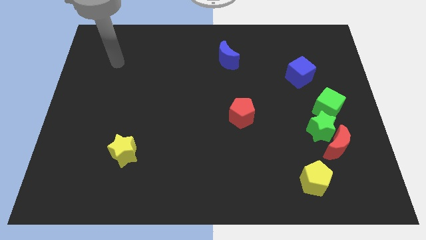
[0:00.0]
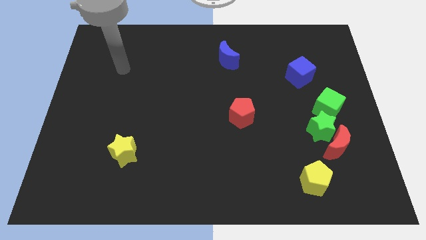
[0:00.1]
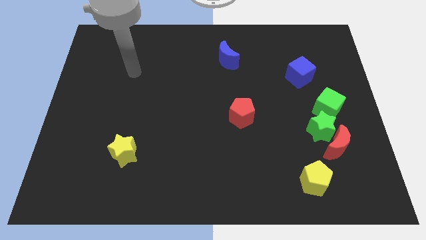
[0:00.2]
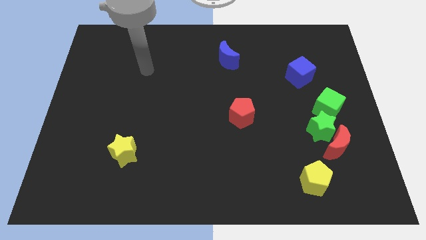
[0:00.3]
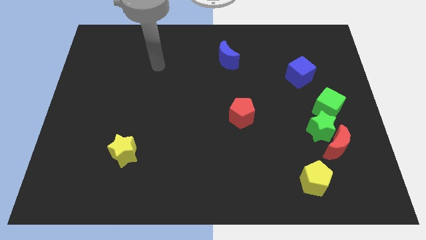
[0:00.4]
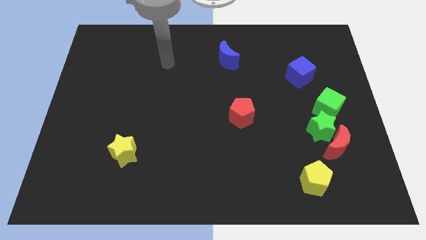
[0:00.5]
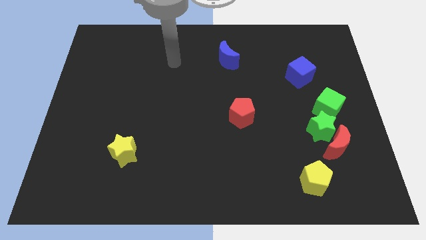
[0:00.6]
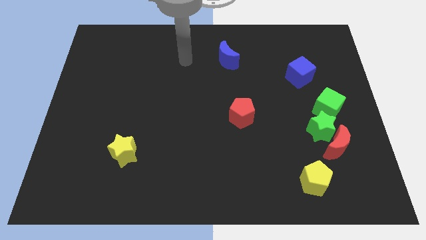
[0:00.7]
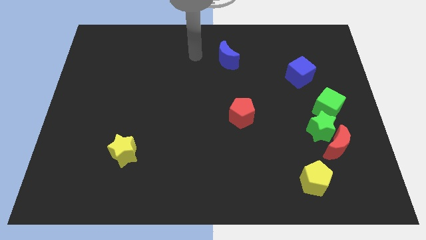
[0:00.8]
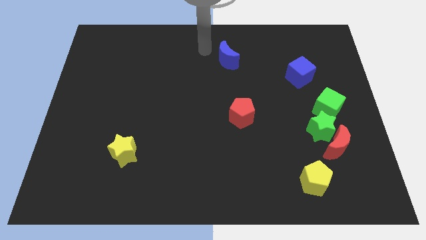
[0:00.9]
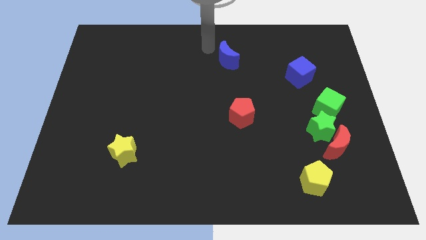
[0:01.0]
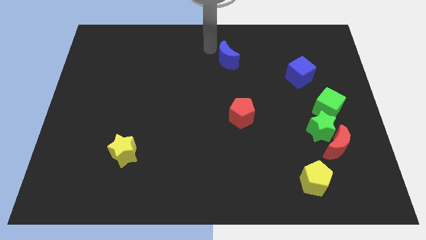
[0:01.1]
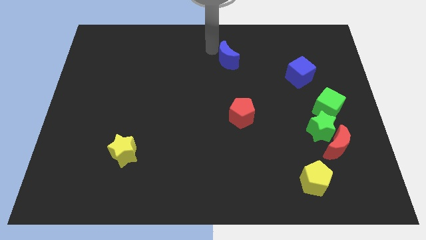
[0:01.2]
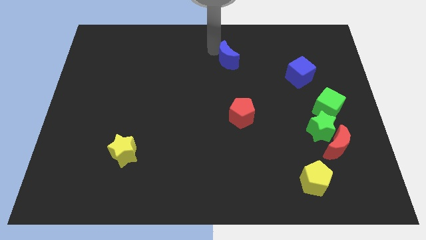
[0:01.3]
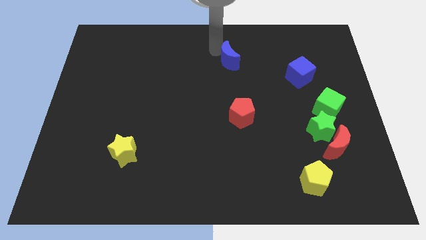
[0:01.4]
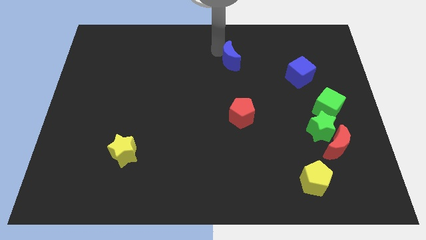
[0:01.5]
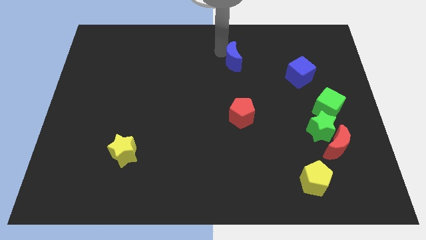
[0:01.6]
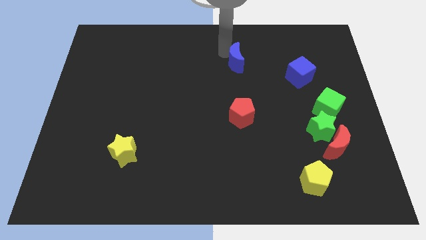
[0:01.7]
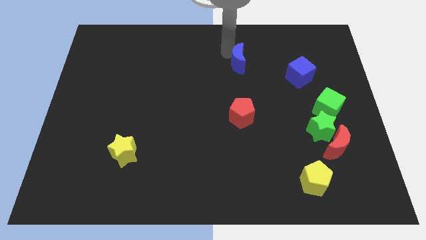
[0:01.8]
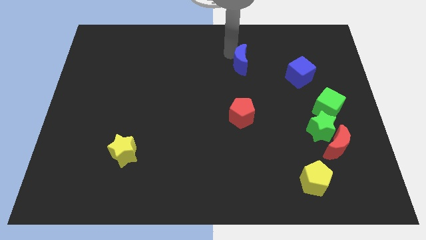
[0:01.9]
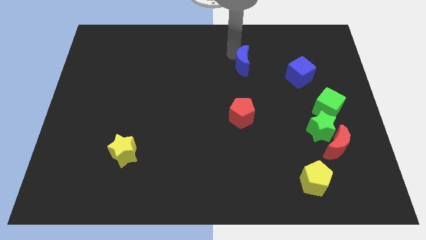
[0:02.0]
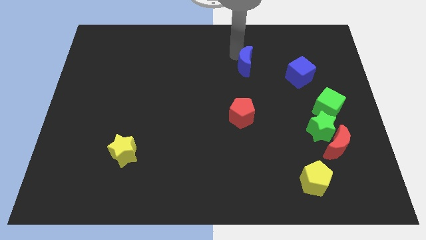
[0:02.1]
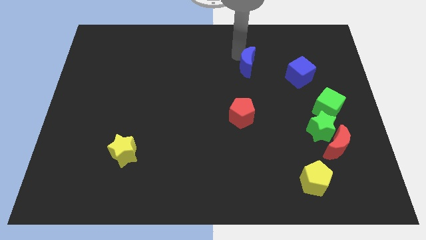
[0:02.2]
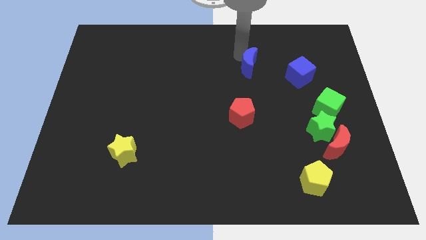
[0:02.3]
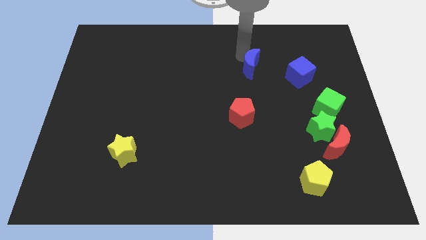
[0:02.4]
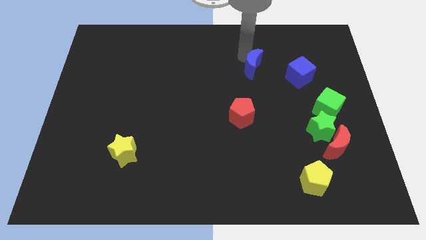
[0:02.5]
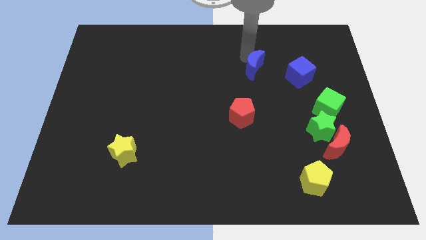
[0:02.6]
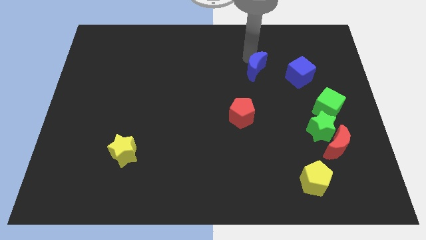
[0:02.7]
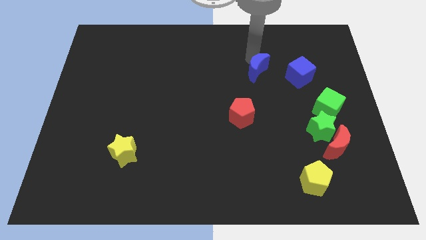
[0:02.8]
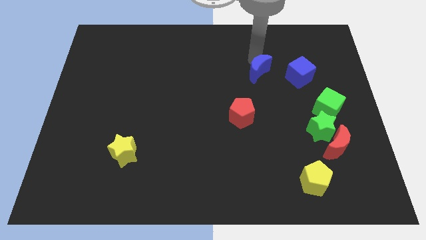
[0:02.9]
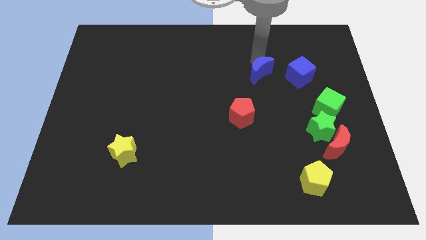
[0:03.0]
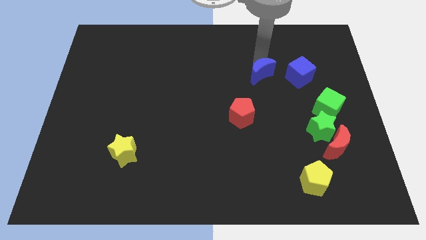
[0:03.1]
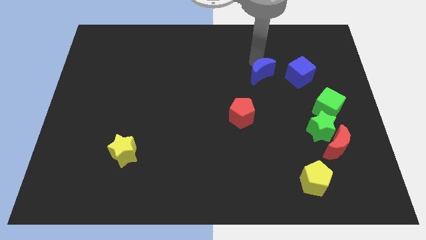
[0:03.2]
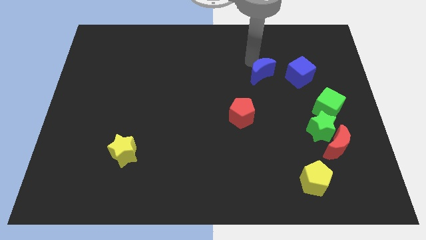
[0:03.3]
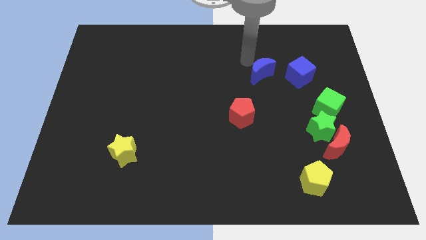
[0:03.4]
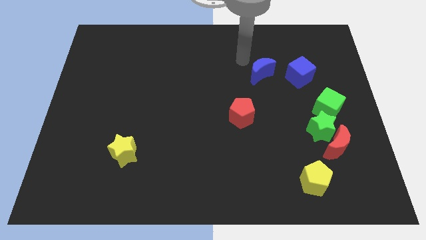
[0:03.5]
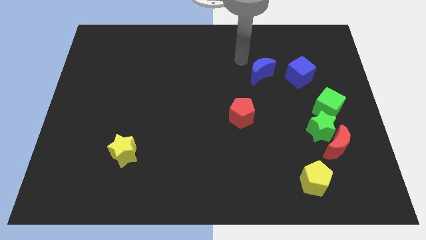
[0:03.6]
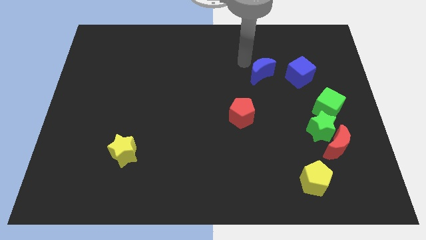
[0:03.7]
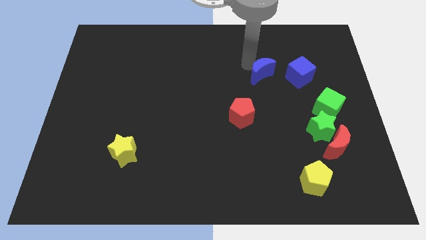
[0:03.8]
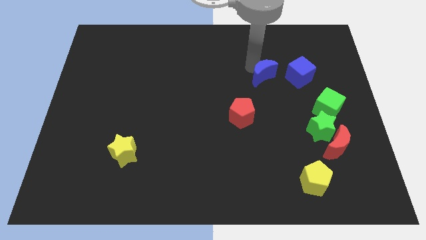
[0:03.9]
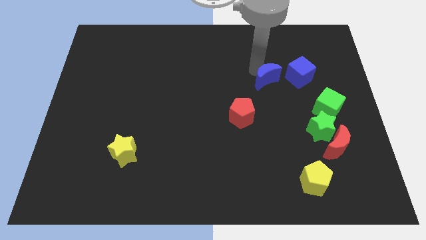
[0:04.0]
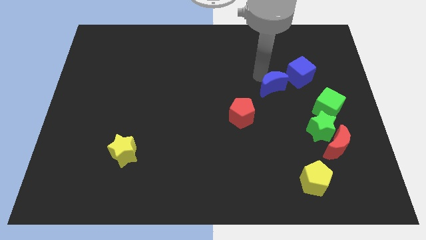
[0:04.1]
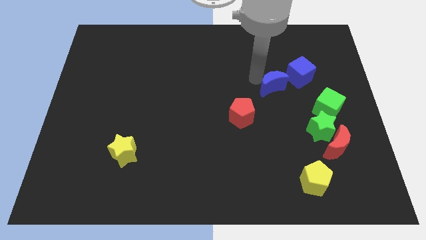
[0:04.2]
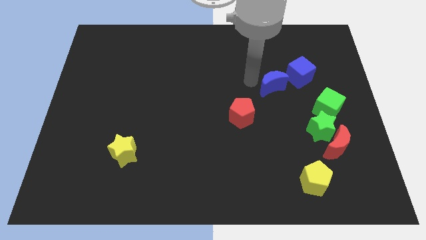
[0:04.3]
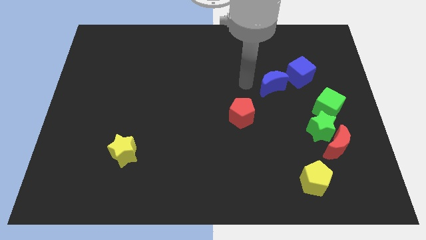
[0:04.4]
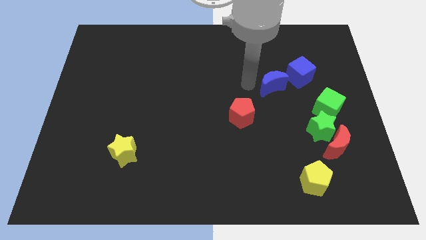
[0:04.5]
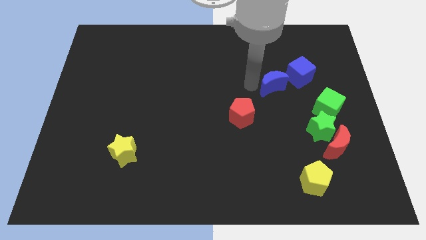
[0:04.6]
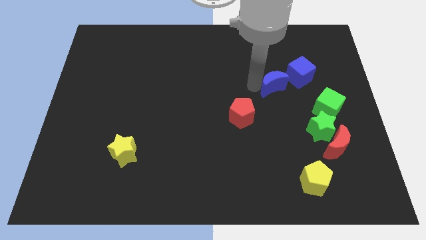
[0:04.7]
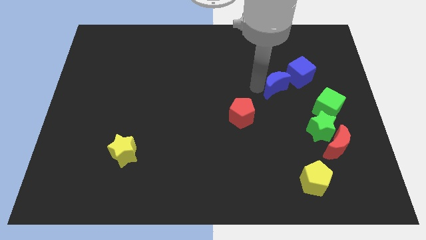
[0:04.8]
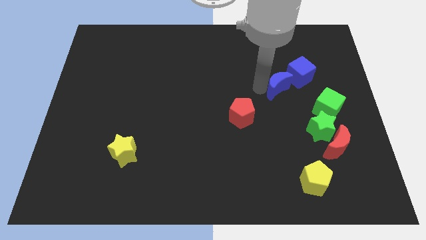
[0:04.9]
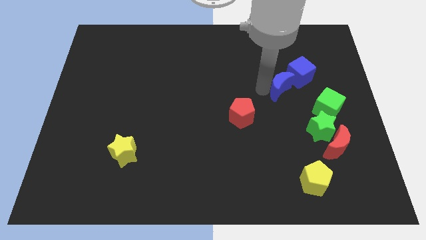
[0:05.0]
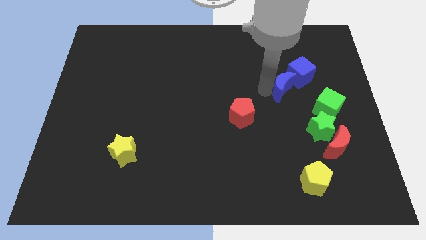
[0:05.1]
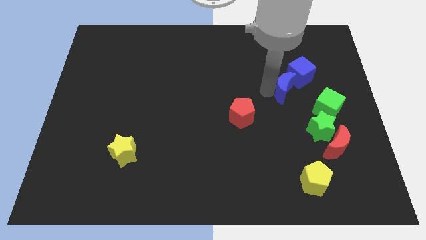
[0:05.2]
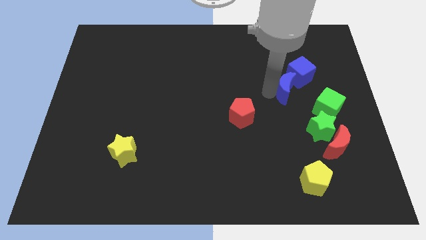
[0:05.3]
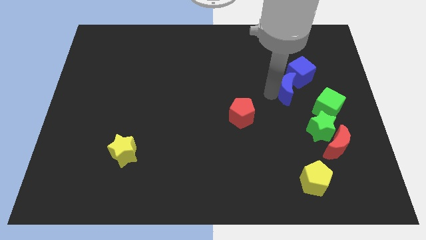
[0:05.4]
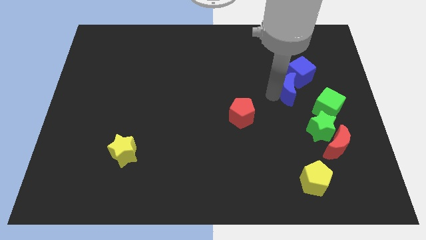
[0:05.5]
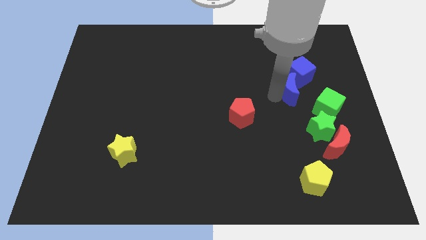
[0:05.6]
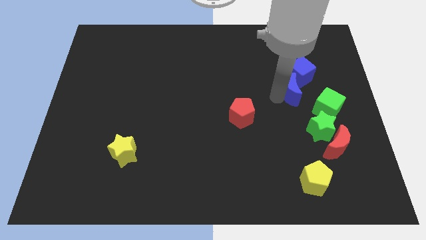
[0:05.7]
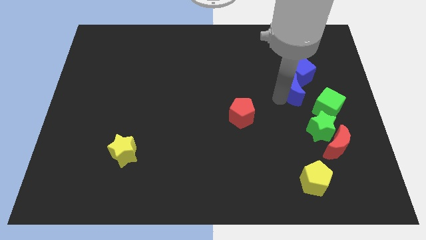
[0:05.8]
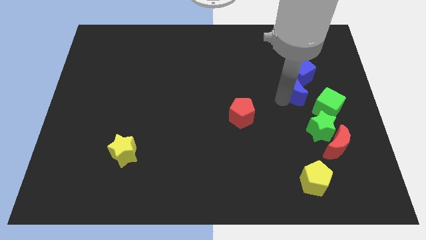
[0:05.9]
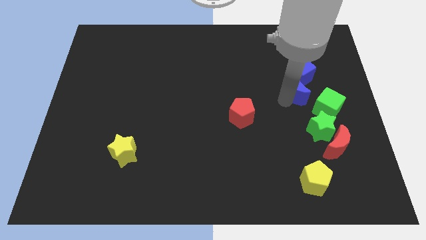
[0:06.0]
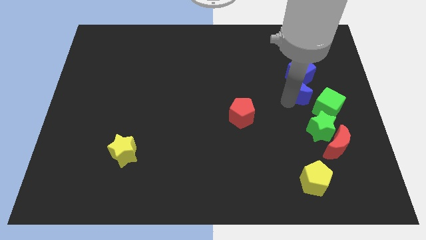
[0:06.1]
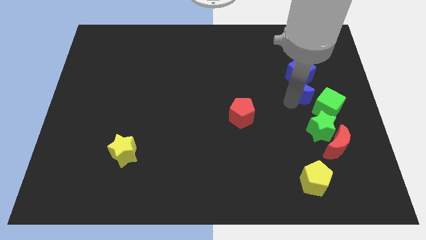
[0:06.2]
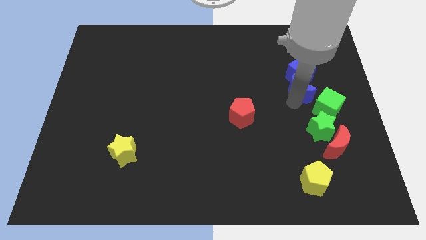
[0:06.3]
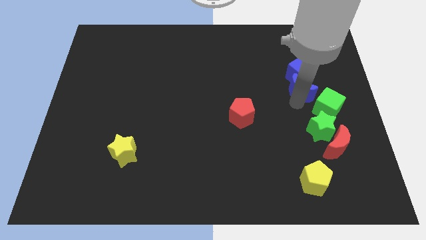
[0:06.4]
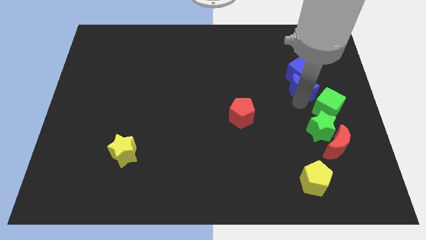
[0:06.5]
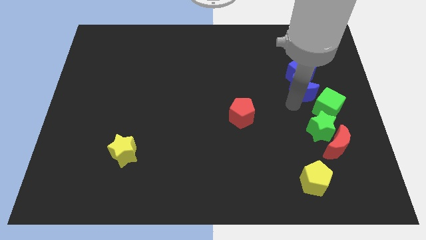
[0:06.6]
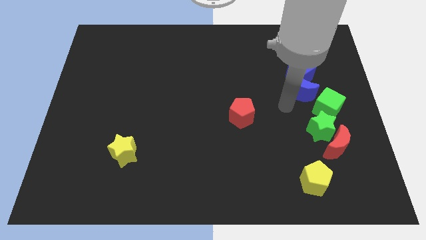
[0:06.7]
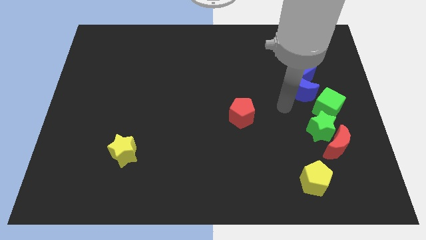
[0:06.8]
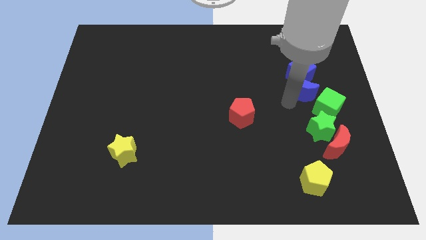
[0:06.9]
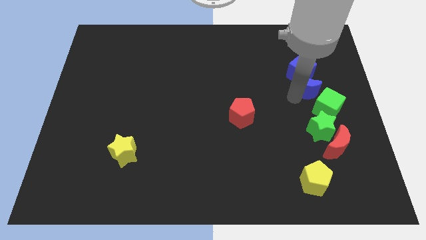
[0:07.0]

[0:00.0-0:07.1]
slide the blue moon to the top side of the green cube
